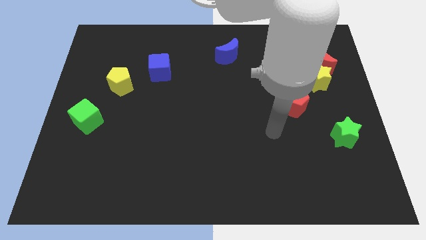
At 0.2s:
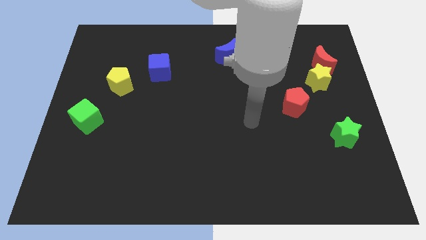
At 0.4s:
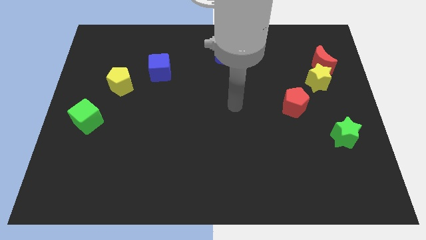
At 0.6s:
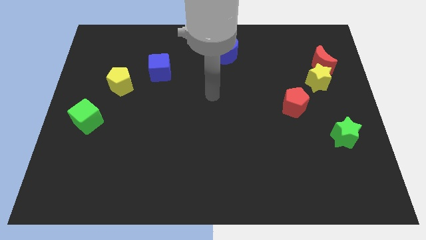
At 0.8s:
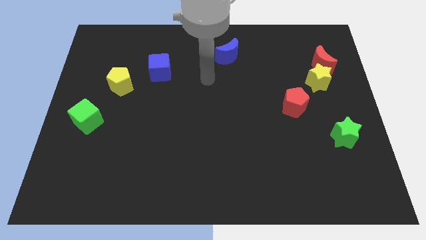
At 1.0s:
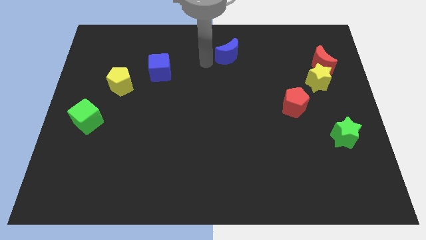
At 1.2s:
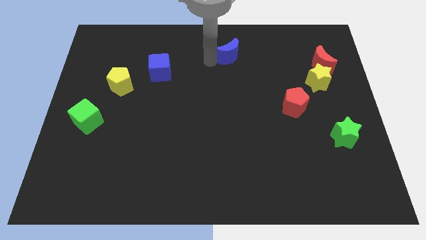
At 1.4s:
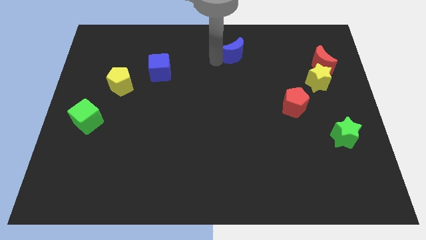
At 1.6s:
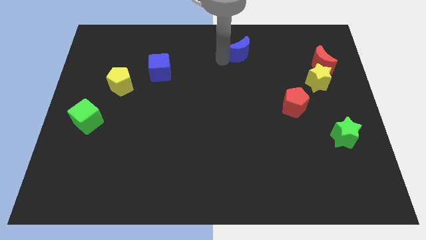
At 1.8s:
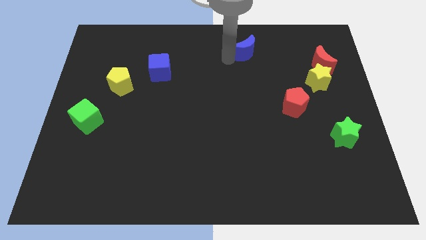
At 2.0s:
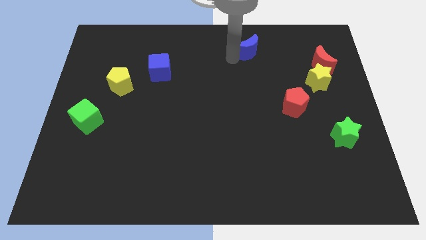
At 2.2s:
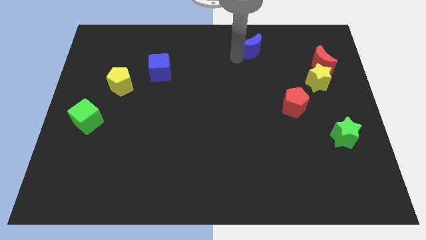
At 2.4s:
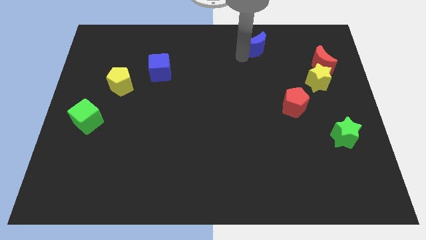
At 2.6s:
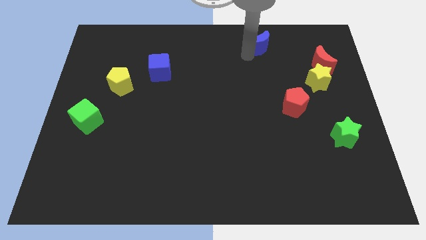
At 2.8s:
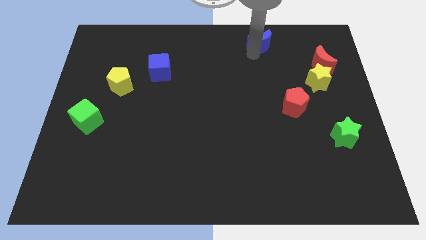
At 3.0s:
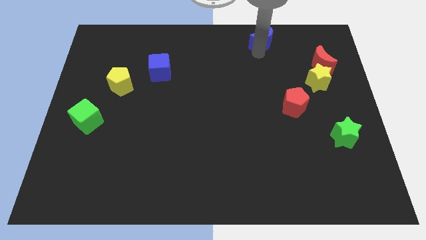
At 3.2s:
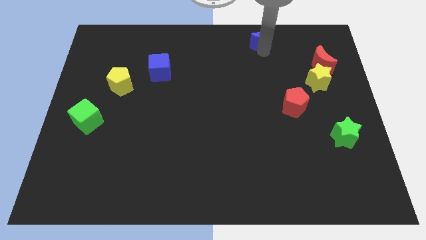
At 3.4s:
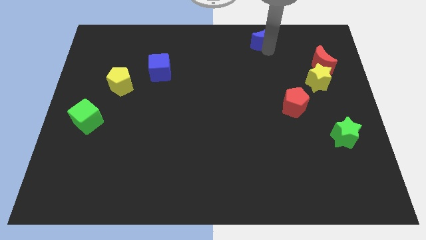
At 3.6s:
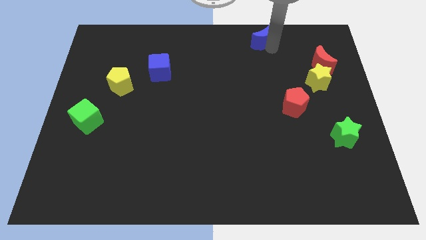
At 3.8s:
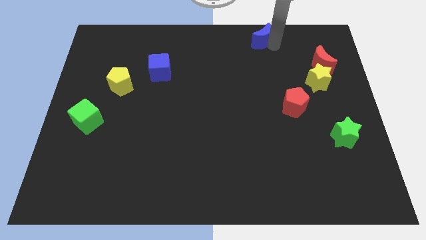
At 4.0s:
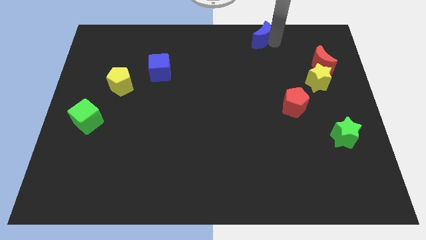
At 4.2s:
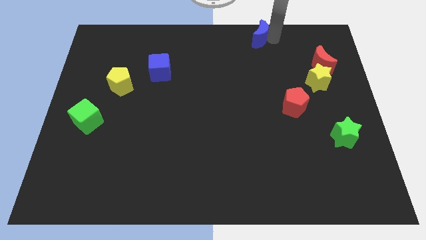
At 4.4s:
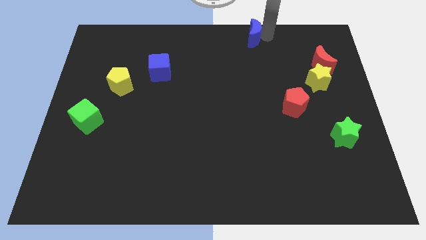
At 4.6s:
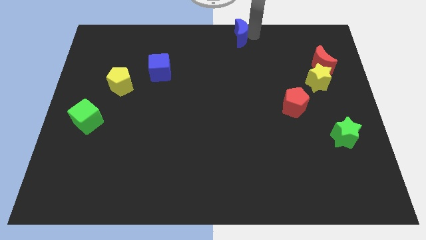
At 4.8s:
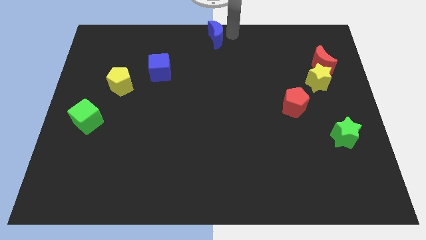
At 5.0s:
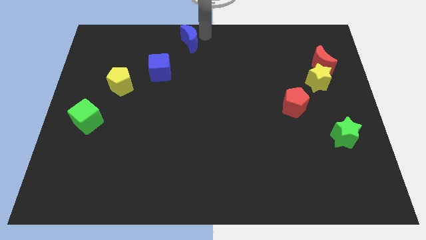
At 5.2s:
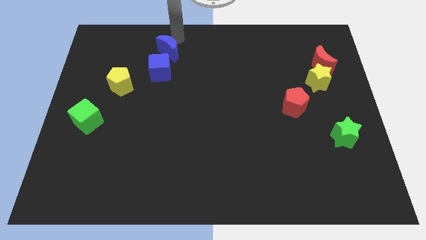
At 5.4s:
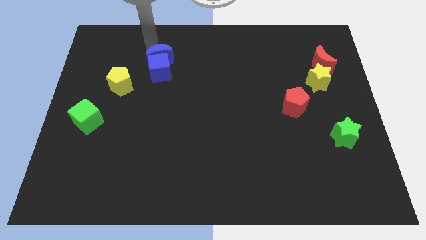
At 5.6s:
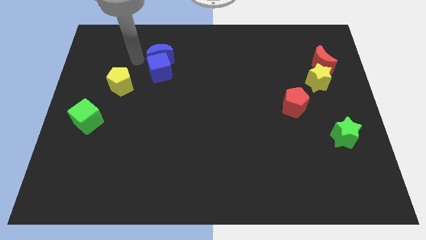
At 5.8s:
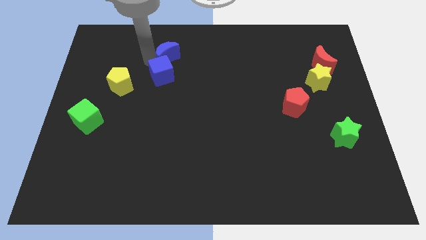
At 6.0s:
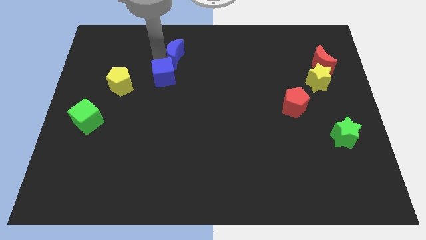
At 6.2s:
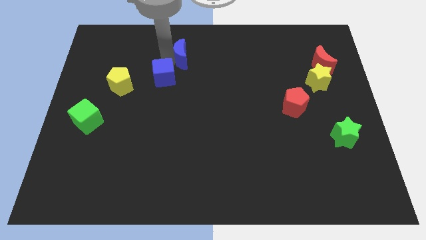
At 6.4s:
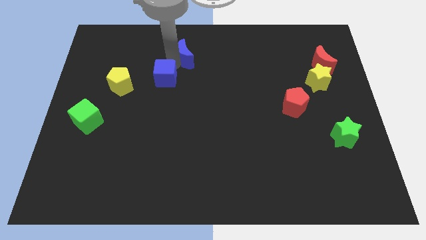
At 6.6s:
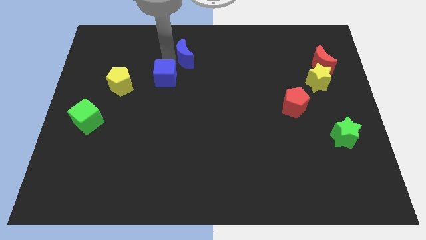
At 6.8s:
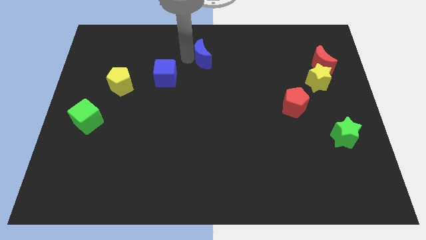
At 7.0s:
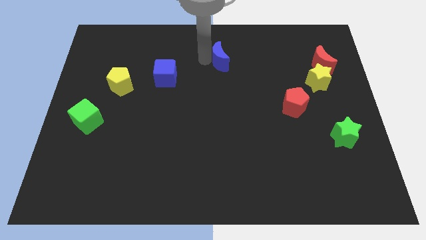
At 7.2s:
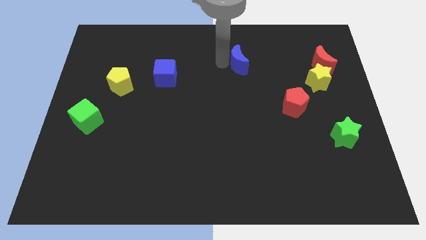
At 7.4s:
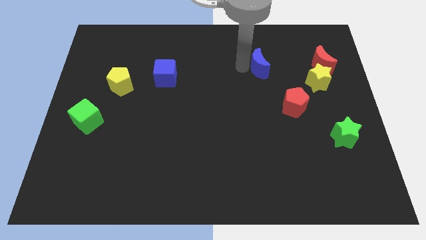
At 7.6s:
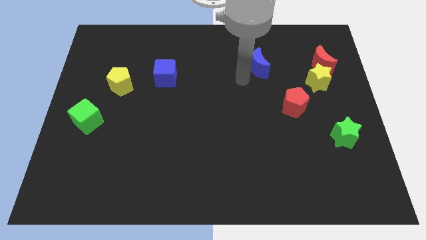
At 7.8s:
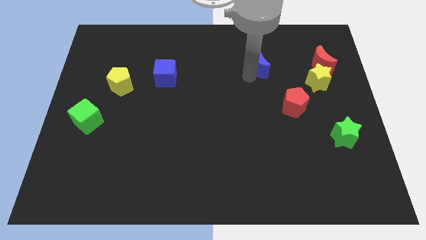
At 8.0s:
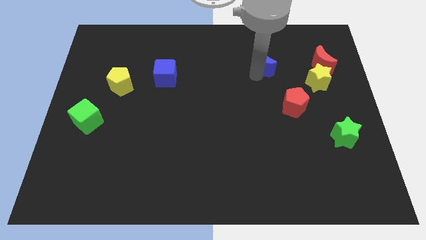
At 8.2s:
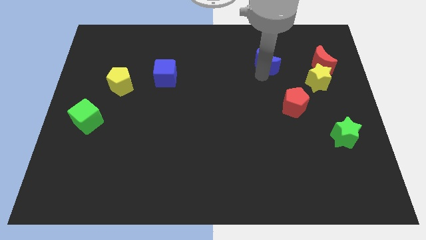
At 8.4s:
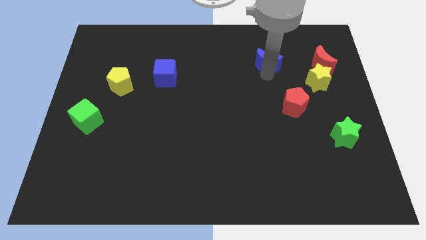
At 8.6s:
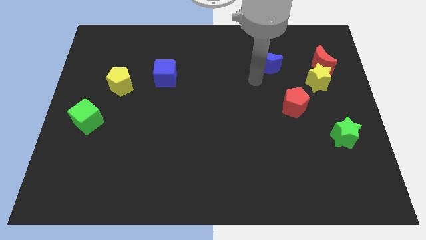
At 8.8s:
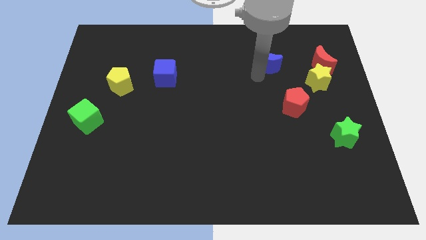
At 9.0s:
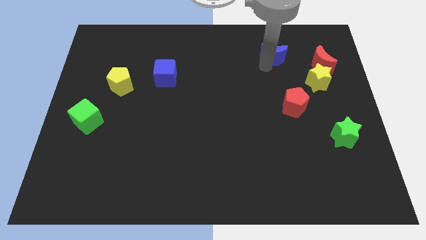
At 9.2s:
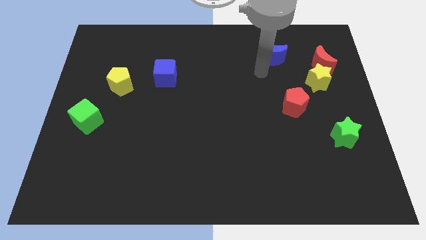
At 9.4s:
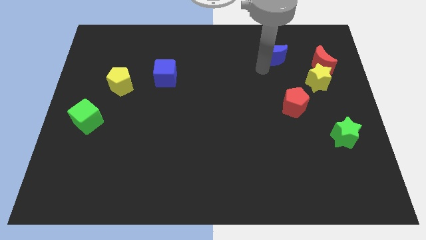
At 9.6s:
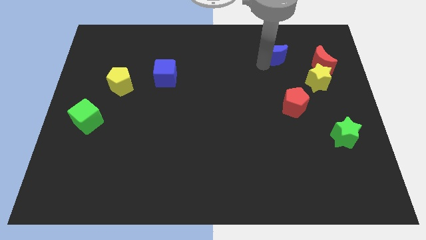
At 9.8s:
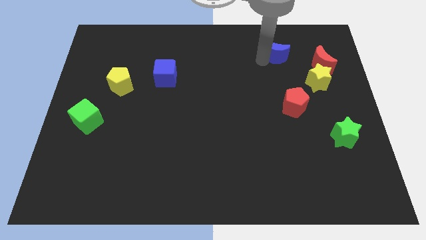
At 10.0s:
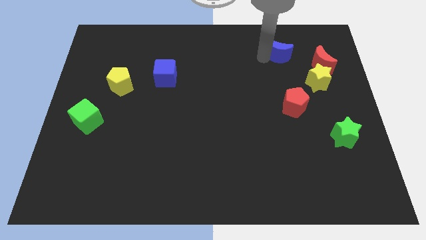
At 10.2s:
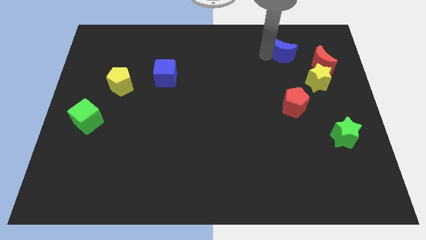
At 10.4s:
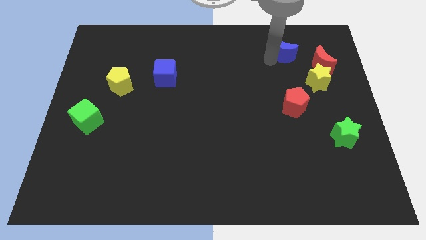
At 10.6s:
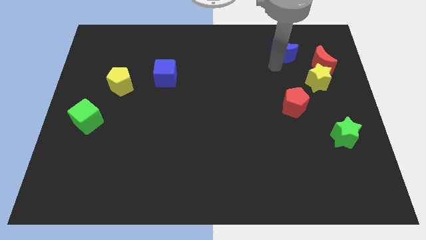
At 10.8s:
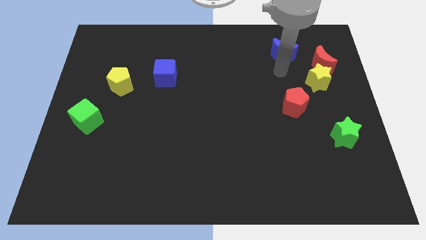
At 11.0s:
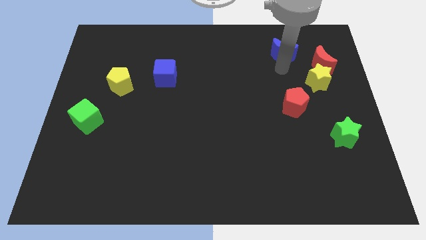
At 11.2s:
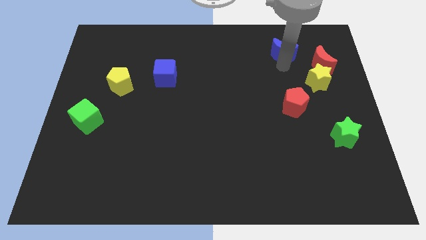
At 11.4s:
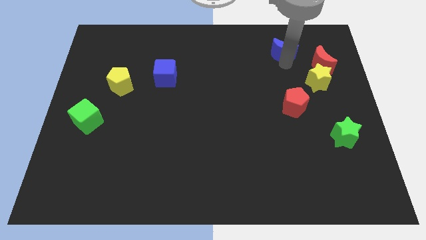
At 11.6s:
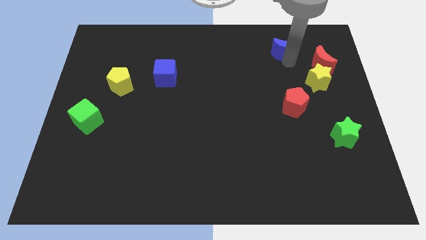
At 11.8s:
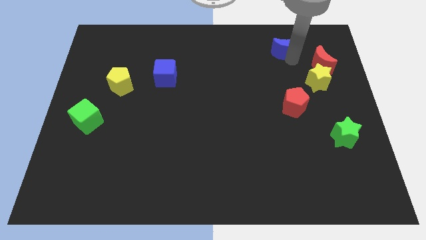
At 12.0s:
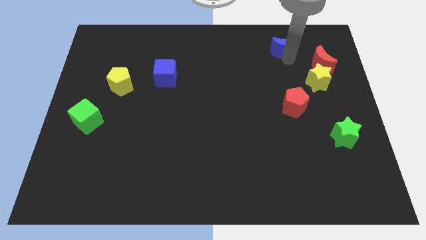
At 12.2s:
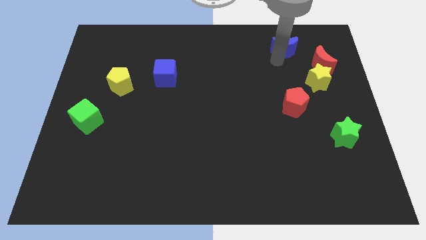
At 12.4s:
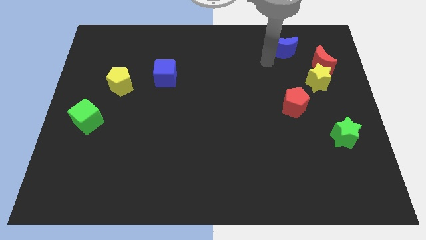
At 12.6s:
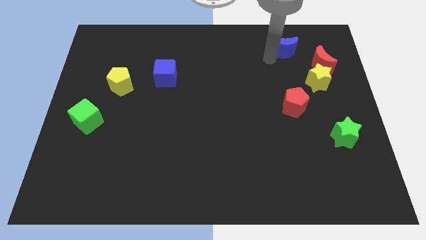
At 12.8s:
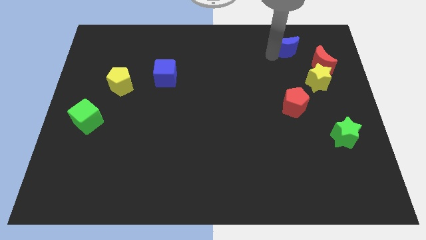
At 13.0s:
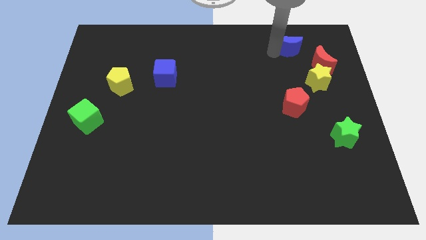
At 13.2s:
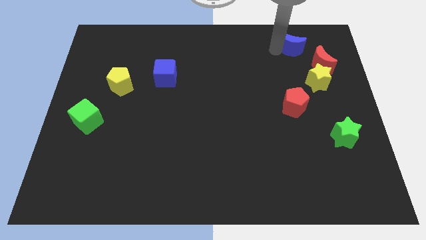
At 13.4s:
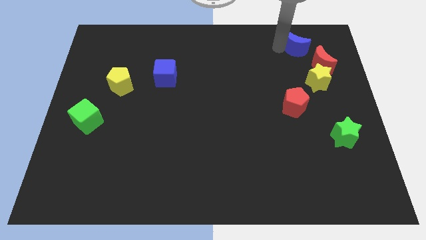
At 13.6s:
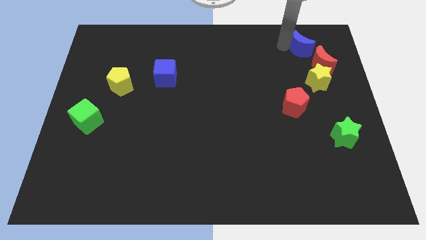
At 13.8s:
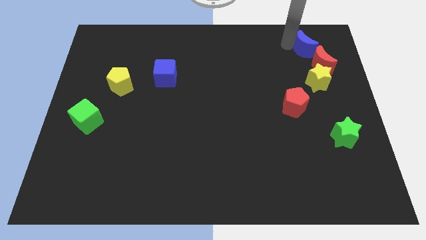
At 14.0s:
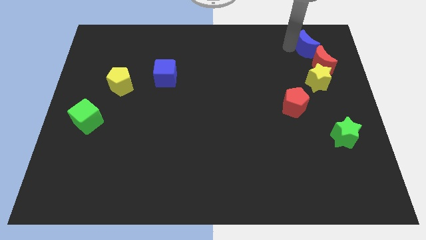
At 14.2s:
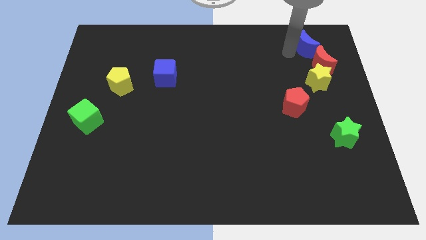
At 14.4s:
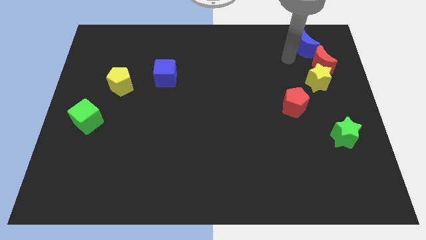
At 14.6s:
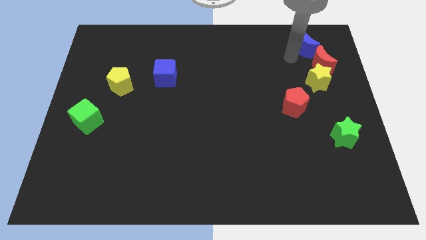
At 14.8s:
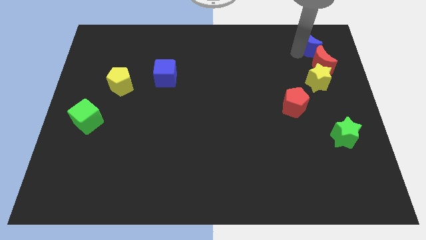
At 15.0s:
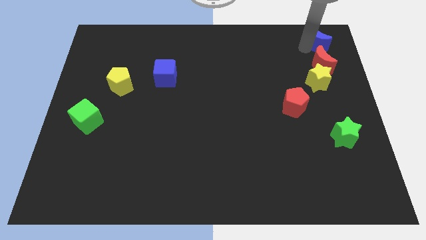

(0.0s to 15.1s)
put the blue moon to the top right of the board
